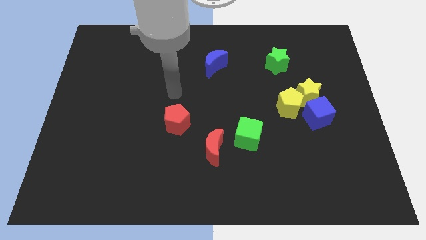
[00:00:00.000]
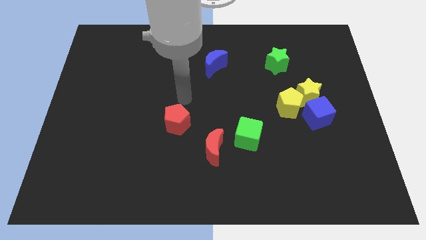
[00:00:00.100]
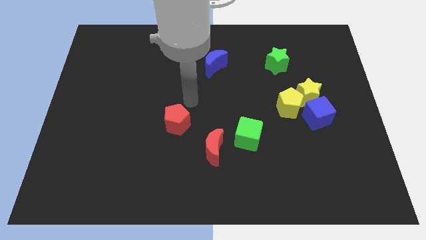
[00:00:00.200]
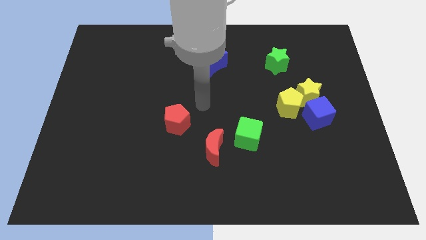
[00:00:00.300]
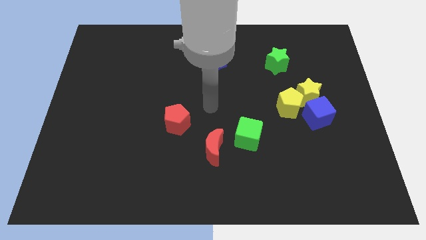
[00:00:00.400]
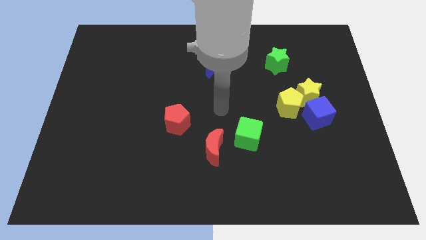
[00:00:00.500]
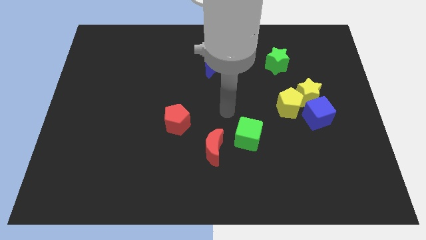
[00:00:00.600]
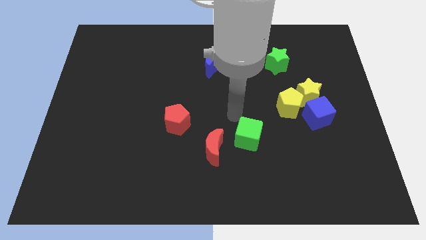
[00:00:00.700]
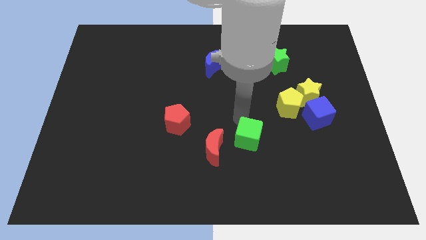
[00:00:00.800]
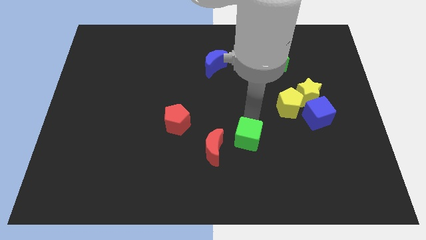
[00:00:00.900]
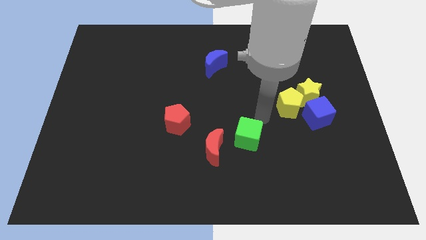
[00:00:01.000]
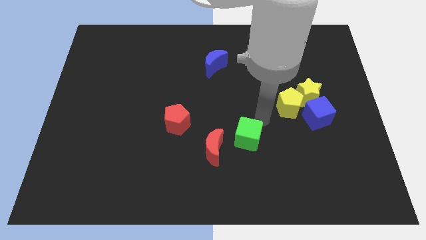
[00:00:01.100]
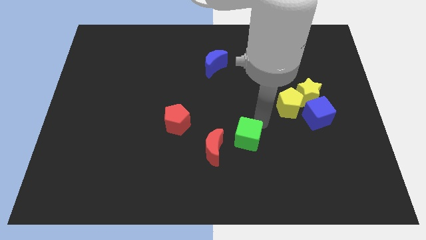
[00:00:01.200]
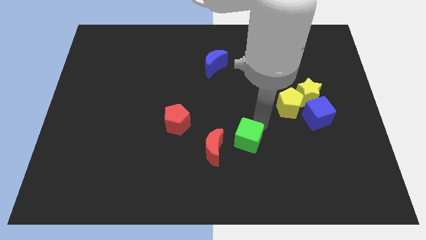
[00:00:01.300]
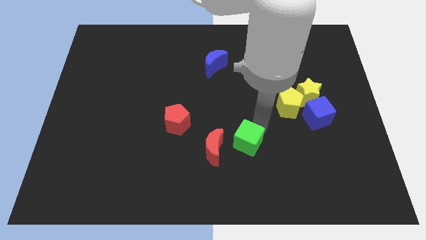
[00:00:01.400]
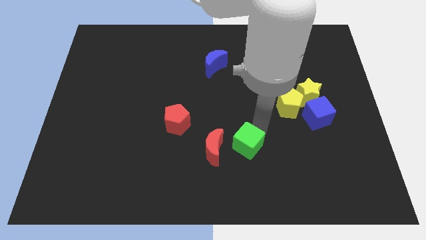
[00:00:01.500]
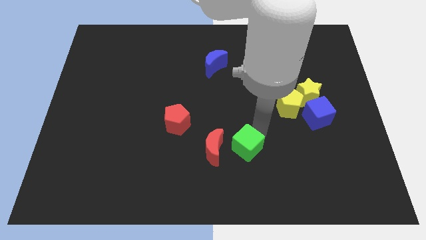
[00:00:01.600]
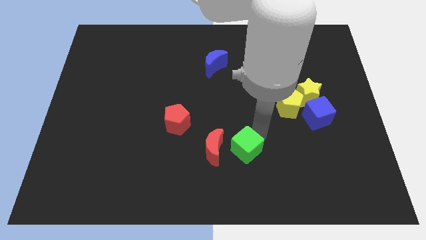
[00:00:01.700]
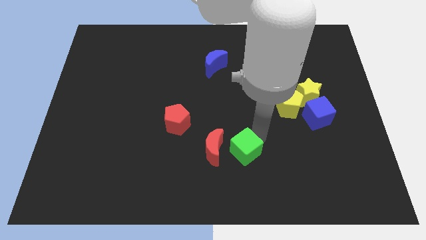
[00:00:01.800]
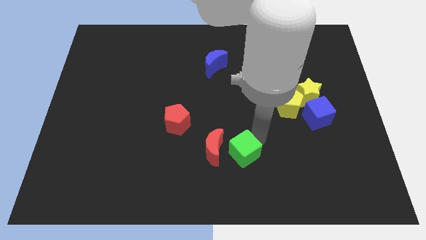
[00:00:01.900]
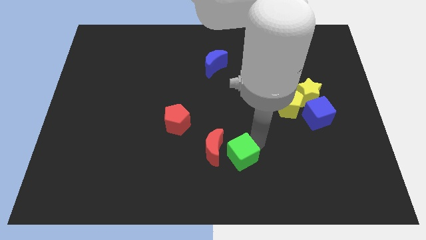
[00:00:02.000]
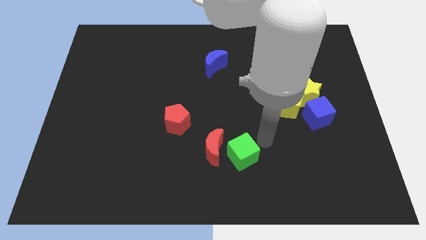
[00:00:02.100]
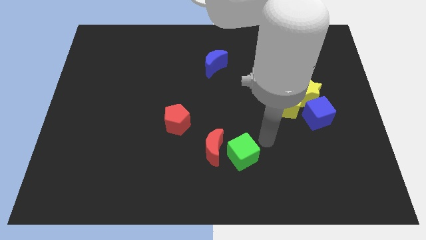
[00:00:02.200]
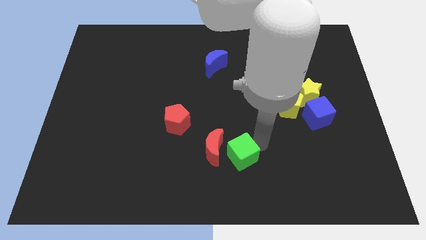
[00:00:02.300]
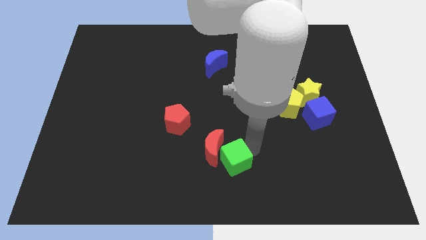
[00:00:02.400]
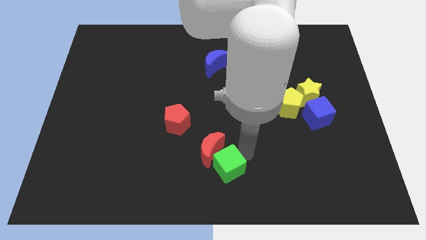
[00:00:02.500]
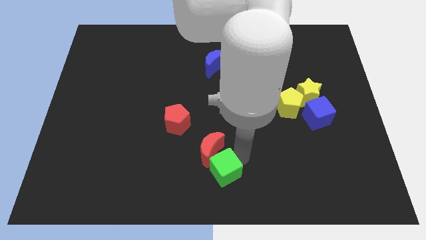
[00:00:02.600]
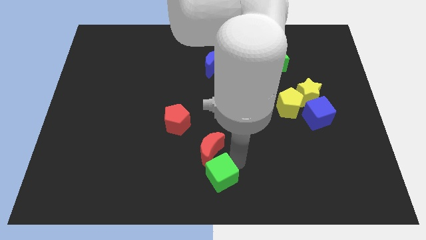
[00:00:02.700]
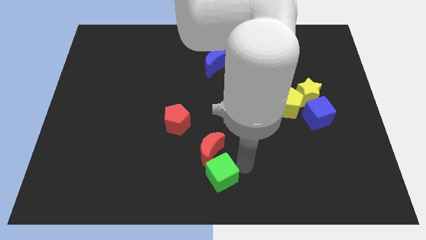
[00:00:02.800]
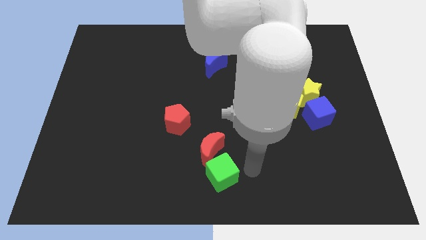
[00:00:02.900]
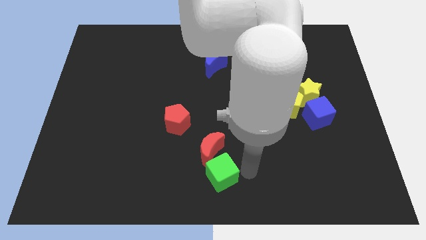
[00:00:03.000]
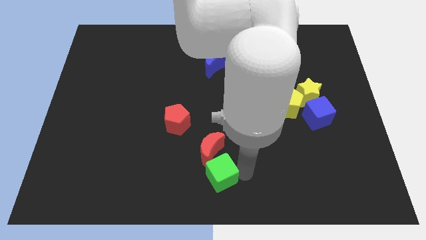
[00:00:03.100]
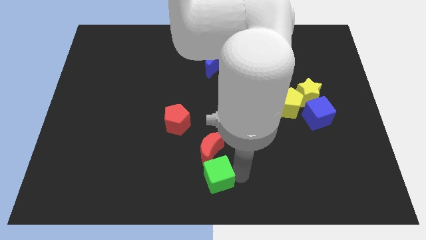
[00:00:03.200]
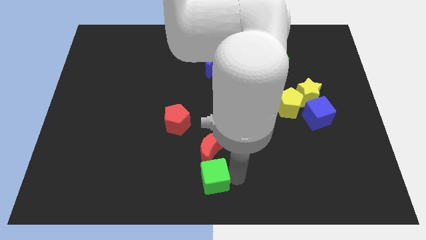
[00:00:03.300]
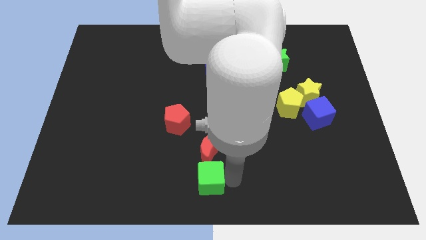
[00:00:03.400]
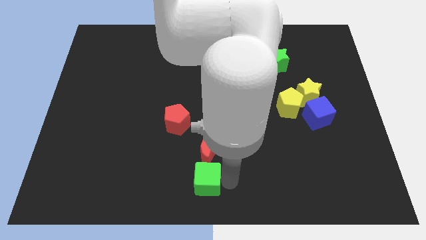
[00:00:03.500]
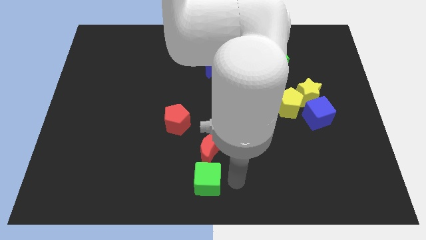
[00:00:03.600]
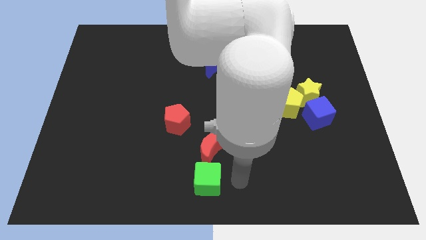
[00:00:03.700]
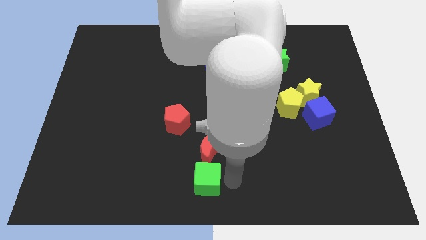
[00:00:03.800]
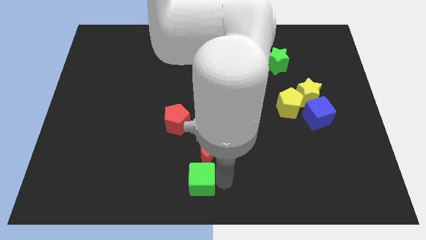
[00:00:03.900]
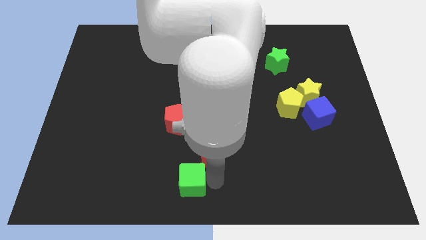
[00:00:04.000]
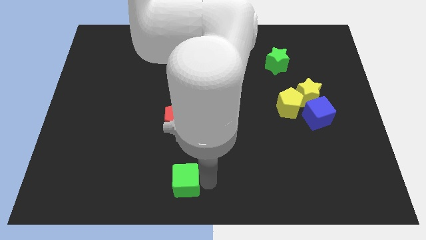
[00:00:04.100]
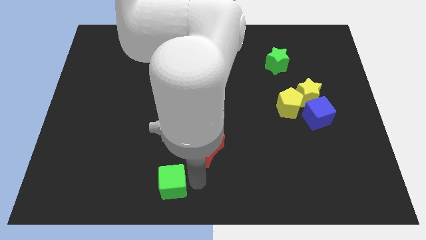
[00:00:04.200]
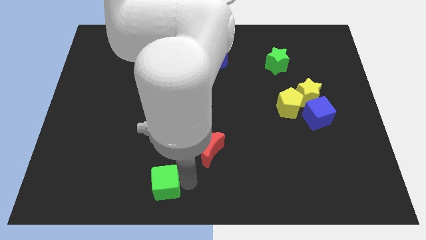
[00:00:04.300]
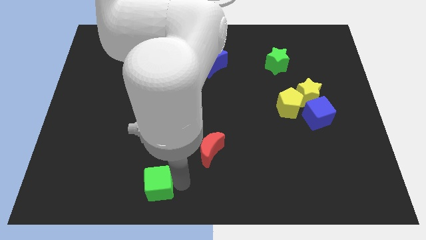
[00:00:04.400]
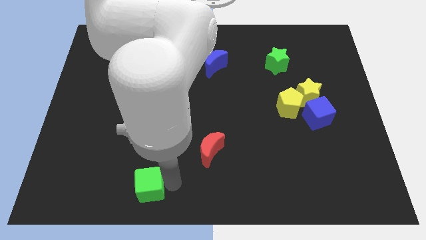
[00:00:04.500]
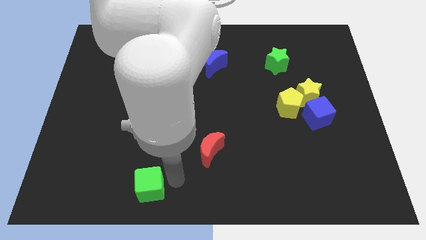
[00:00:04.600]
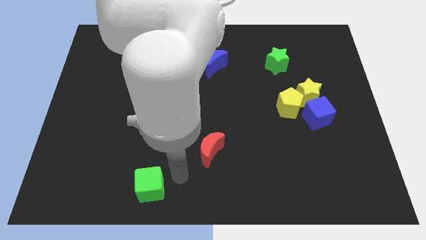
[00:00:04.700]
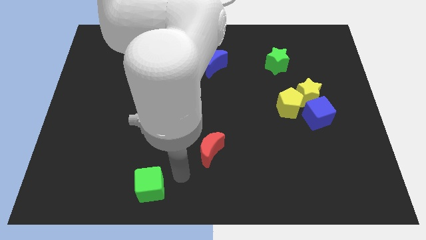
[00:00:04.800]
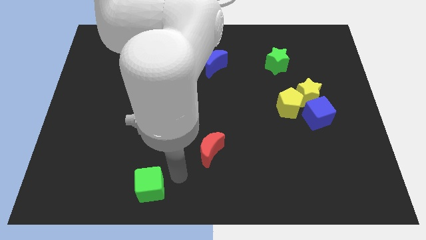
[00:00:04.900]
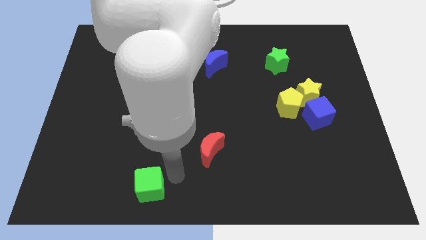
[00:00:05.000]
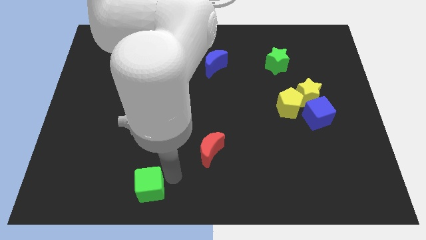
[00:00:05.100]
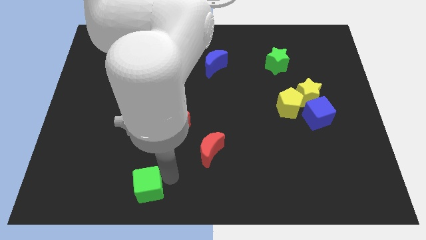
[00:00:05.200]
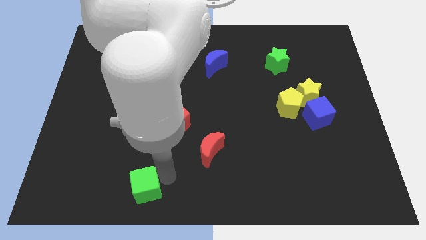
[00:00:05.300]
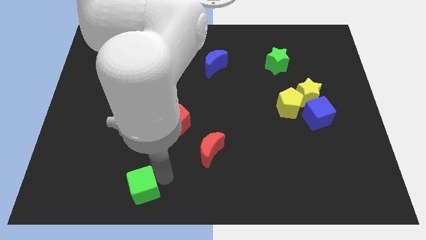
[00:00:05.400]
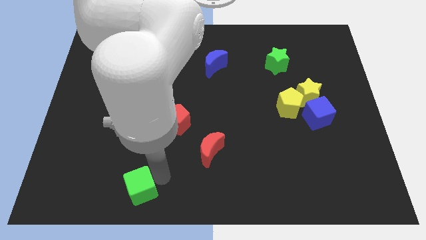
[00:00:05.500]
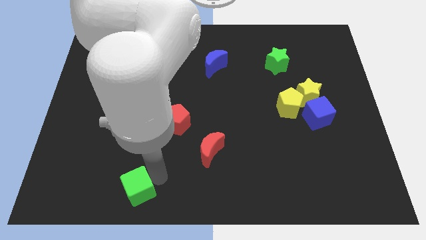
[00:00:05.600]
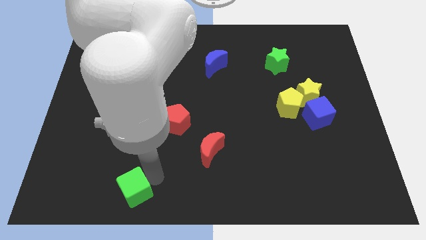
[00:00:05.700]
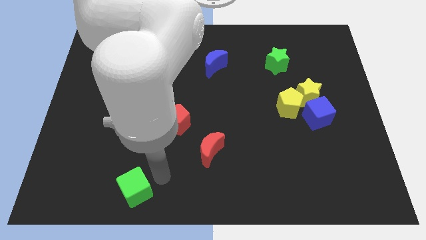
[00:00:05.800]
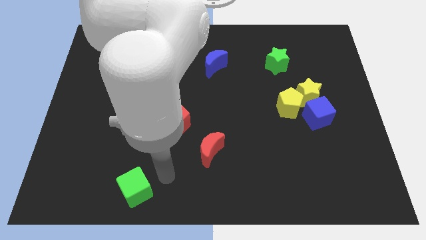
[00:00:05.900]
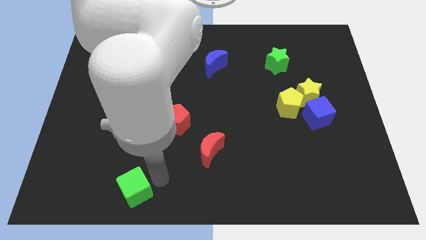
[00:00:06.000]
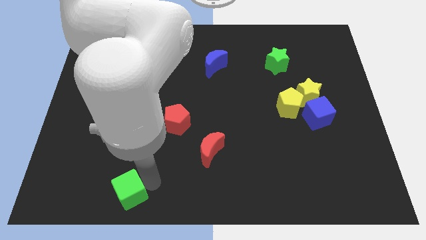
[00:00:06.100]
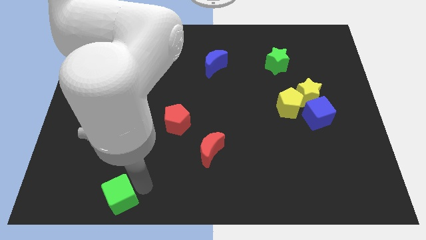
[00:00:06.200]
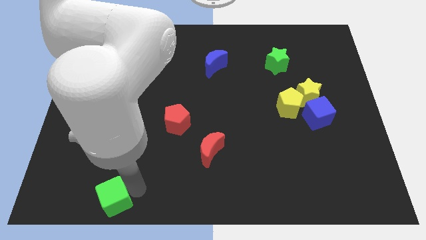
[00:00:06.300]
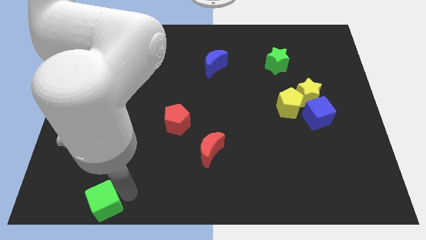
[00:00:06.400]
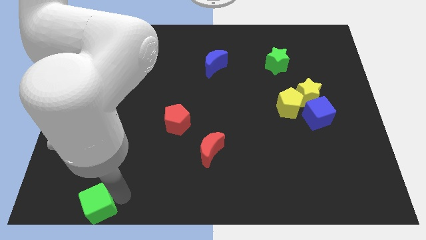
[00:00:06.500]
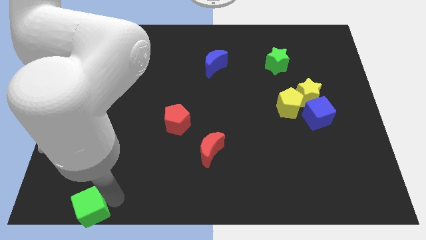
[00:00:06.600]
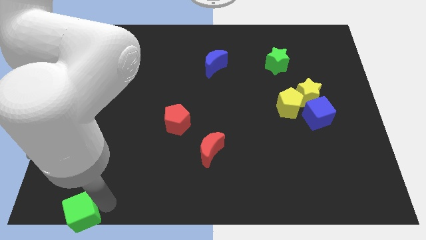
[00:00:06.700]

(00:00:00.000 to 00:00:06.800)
move the green cube to the bottom left corner

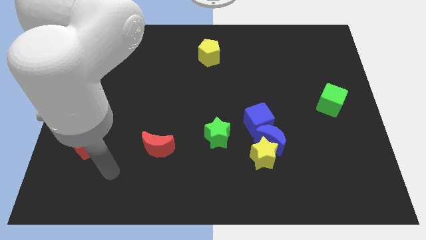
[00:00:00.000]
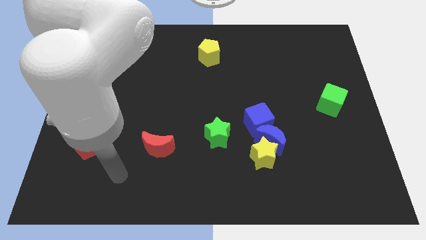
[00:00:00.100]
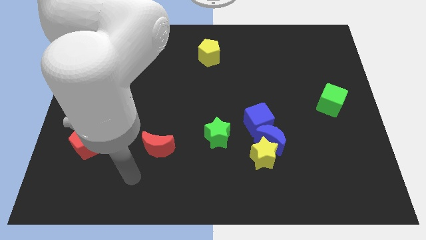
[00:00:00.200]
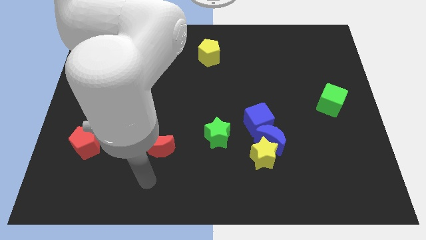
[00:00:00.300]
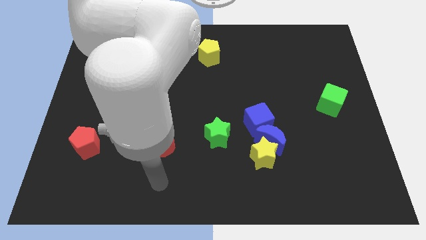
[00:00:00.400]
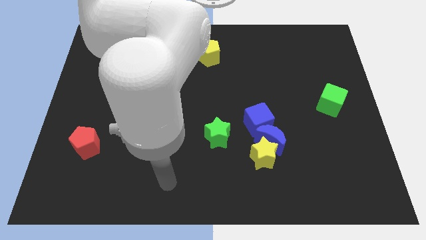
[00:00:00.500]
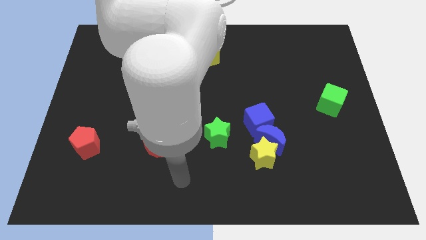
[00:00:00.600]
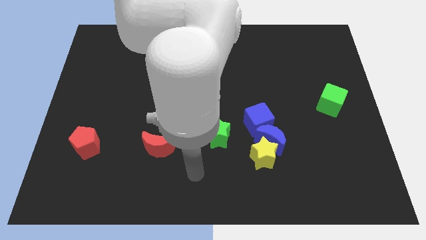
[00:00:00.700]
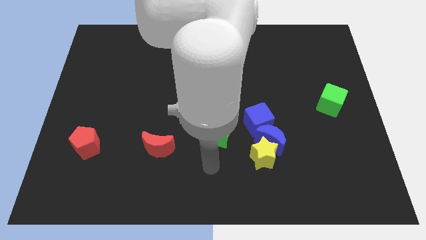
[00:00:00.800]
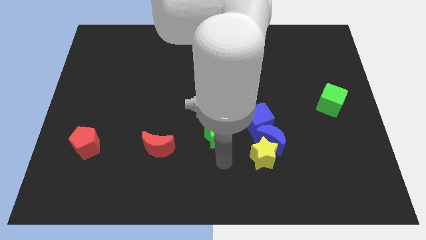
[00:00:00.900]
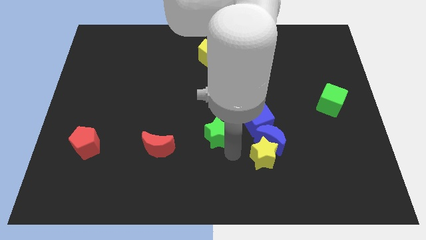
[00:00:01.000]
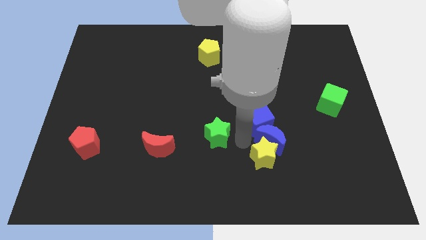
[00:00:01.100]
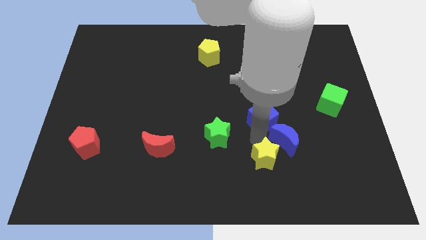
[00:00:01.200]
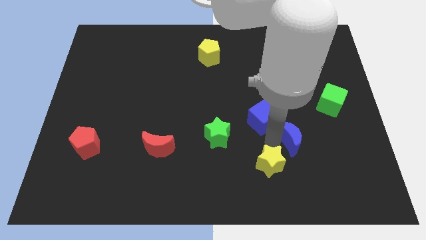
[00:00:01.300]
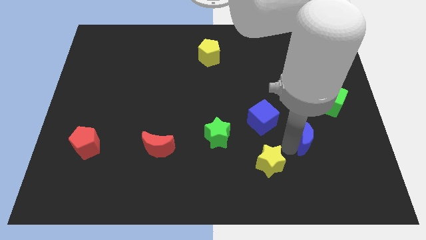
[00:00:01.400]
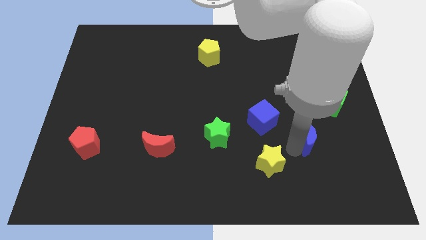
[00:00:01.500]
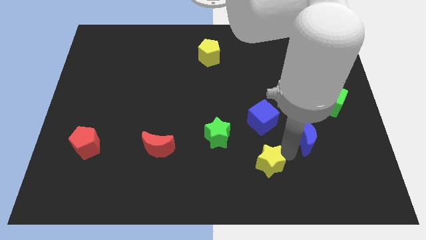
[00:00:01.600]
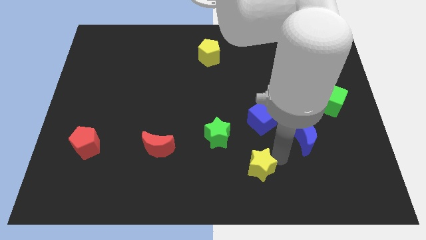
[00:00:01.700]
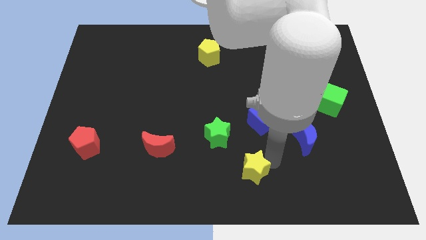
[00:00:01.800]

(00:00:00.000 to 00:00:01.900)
move the yellow star to the bottom
